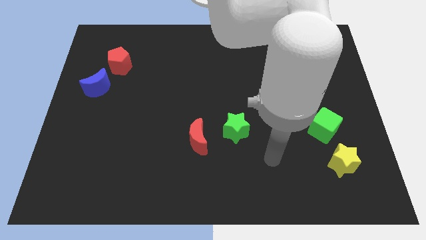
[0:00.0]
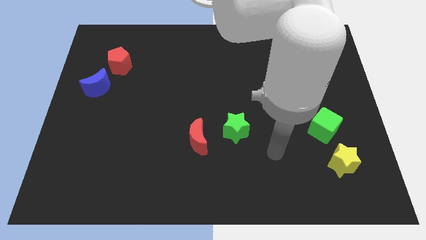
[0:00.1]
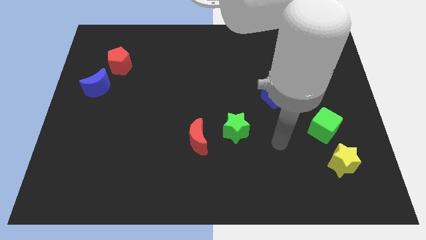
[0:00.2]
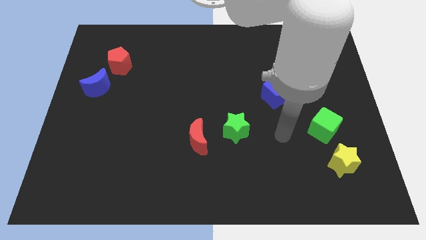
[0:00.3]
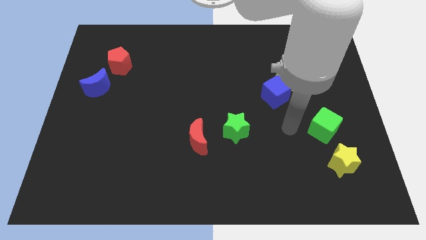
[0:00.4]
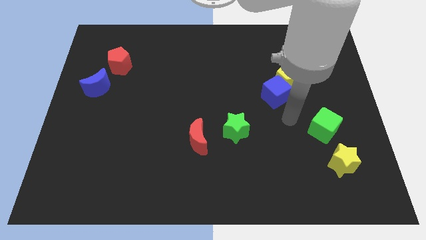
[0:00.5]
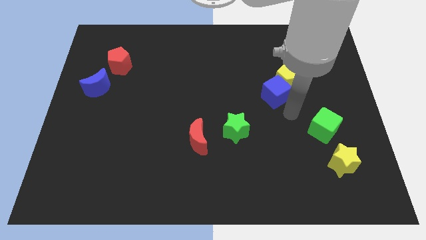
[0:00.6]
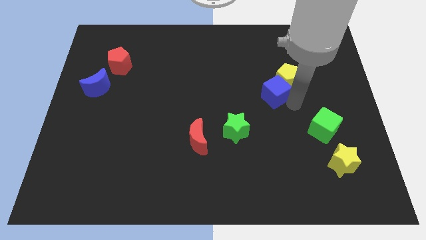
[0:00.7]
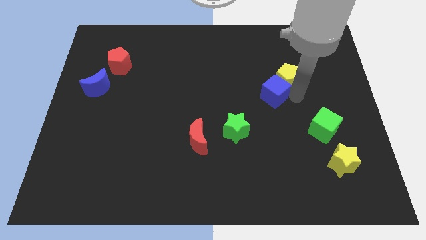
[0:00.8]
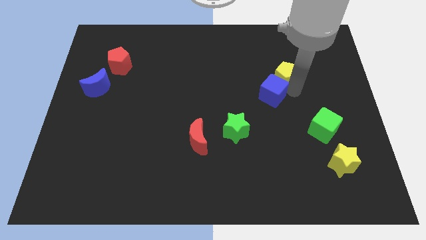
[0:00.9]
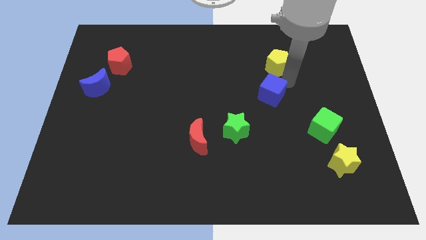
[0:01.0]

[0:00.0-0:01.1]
move the blue cube away from the yellow pentagon

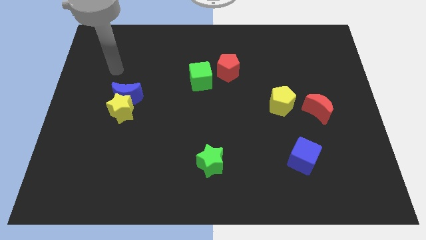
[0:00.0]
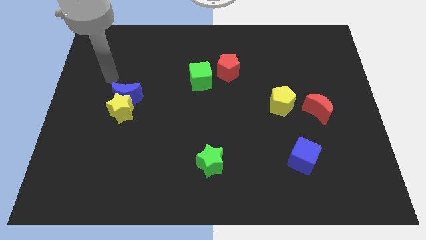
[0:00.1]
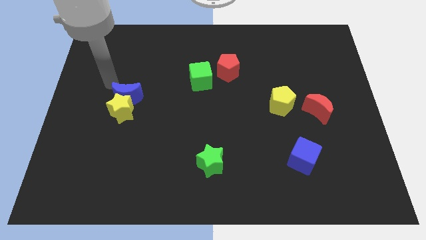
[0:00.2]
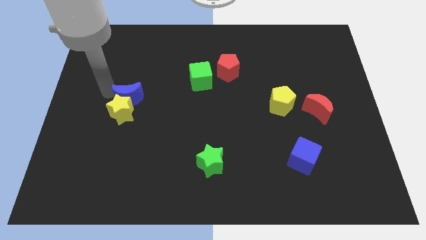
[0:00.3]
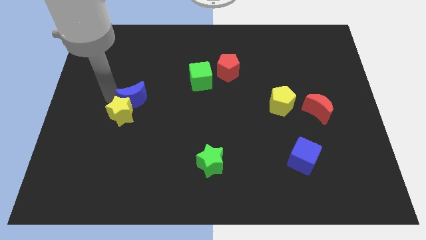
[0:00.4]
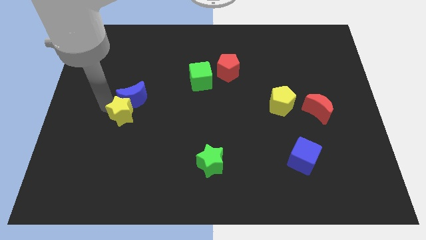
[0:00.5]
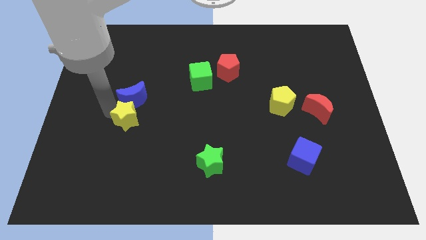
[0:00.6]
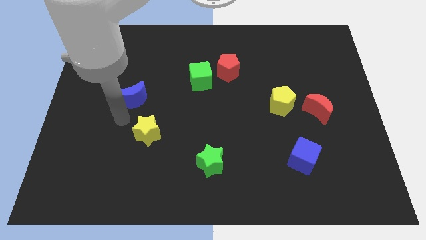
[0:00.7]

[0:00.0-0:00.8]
move the blue moon away from the yellow star

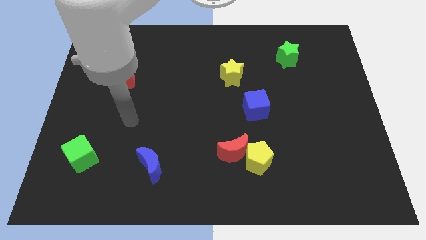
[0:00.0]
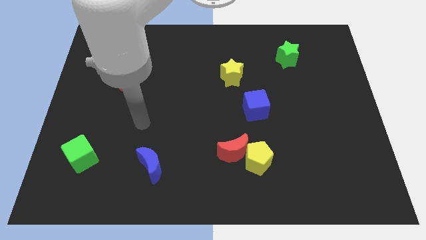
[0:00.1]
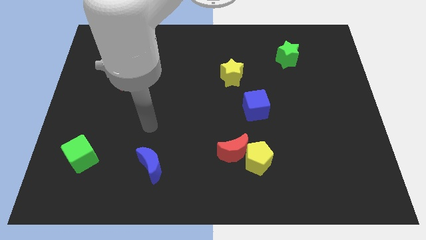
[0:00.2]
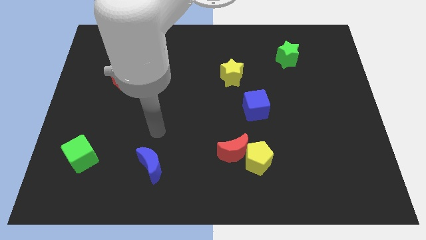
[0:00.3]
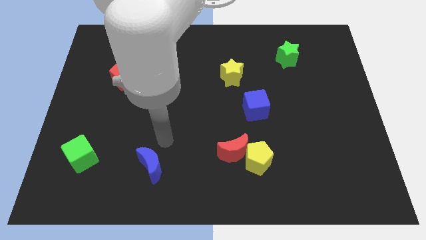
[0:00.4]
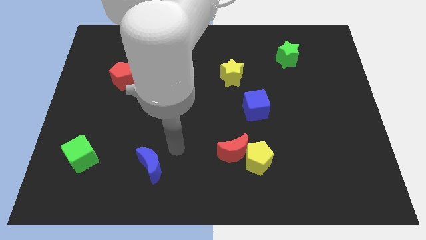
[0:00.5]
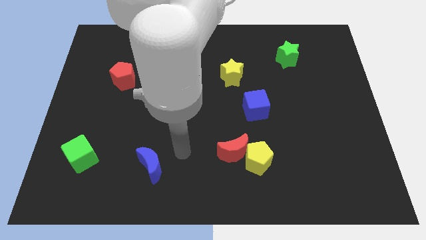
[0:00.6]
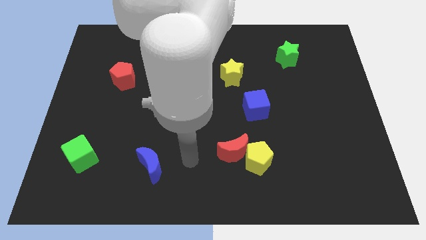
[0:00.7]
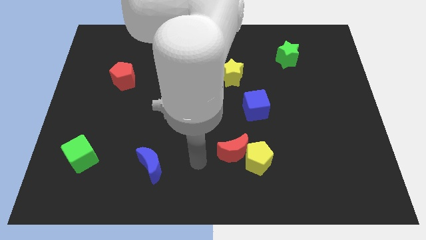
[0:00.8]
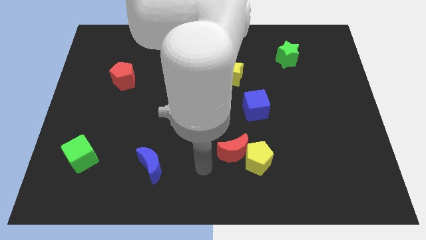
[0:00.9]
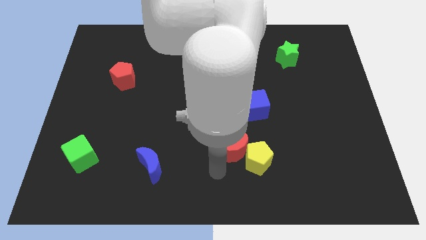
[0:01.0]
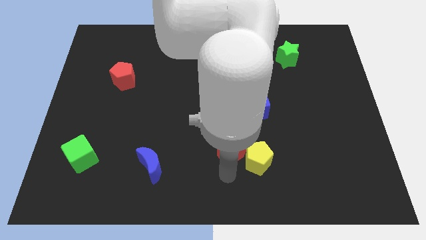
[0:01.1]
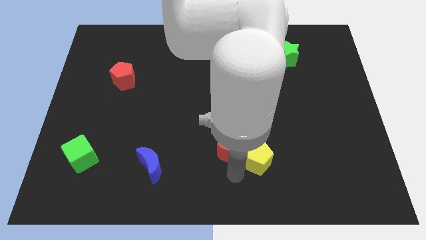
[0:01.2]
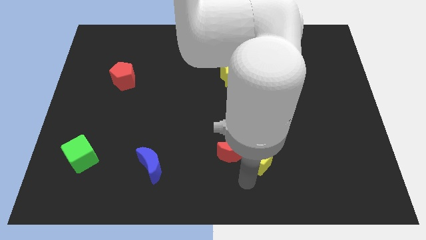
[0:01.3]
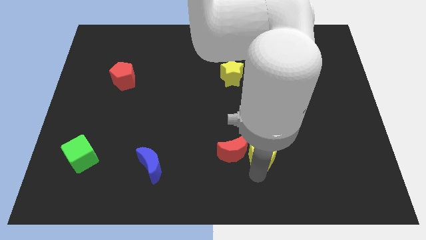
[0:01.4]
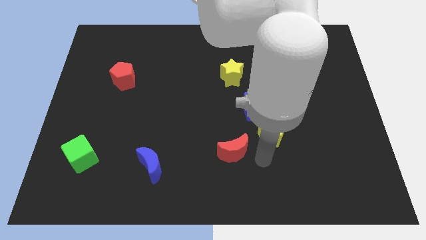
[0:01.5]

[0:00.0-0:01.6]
pull the red moon apart from the yellow pentagon

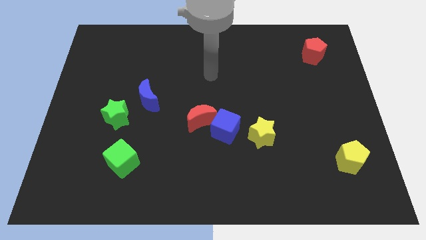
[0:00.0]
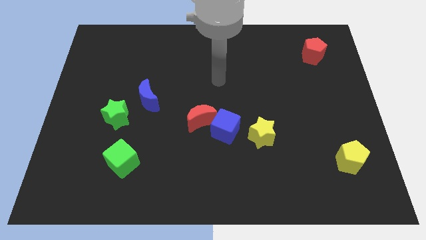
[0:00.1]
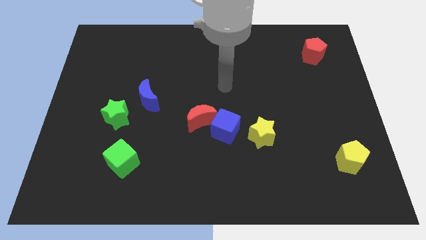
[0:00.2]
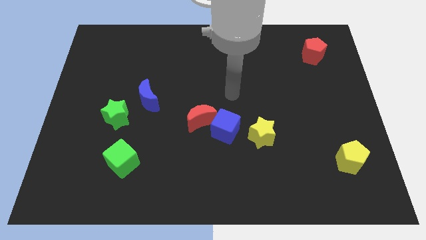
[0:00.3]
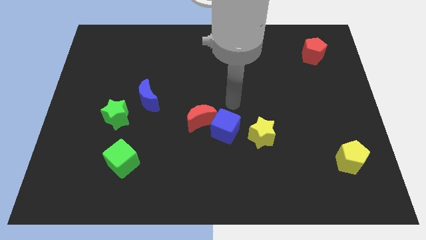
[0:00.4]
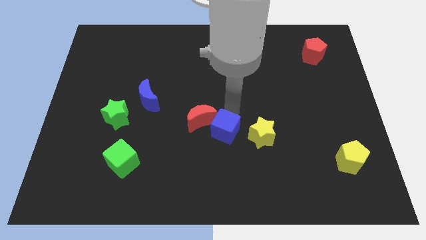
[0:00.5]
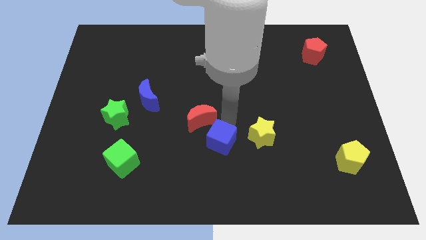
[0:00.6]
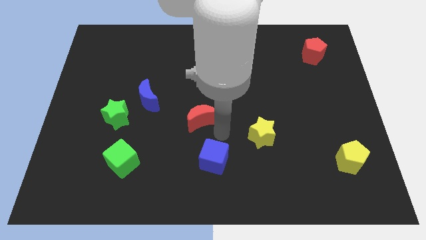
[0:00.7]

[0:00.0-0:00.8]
separate the red moon from the blue cube

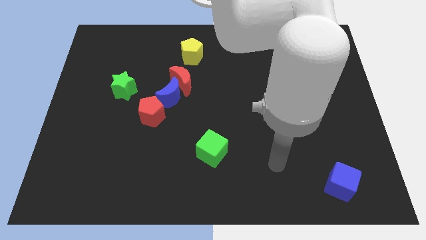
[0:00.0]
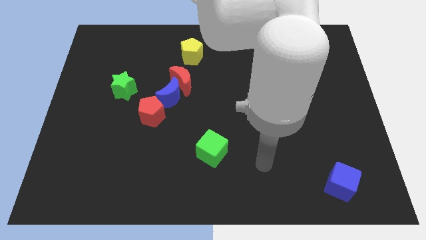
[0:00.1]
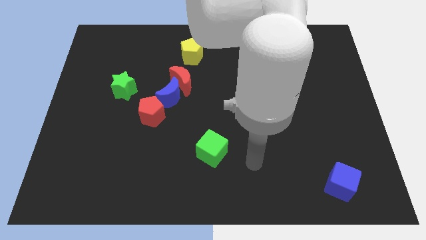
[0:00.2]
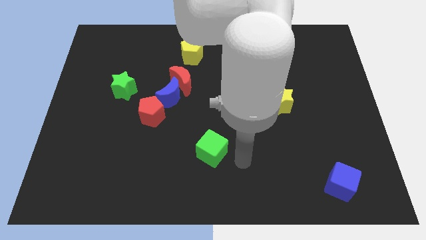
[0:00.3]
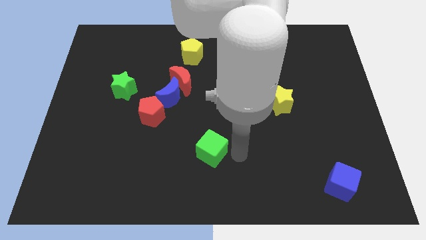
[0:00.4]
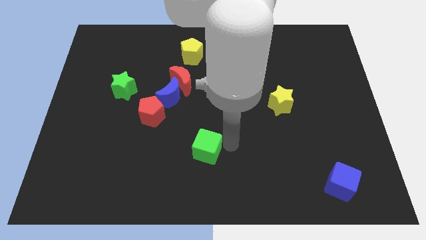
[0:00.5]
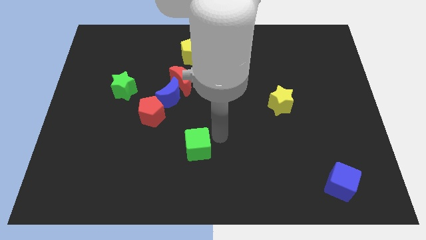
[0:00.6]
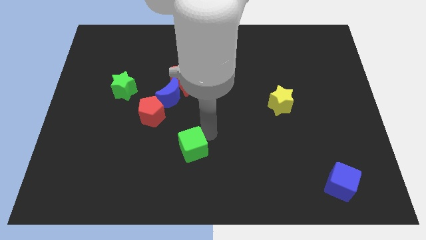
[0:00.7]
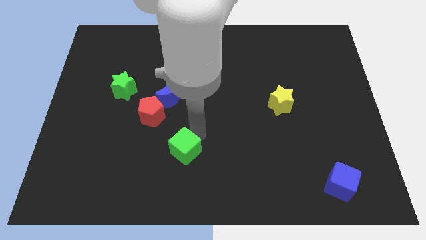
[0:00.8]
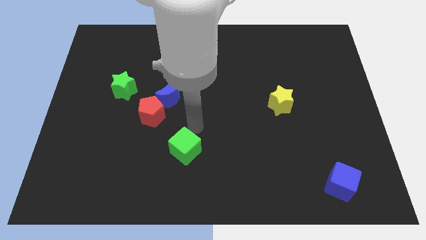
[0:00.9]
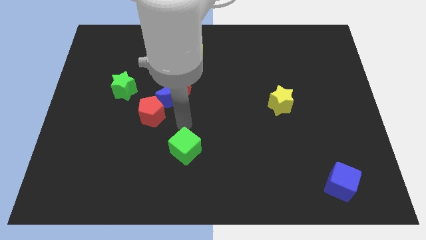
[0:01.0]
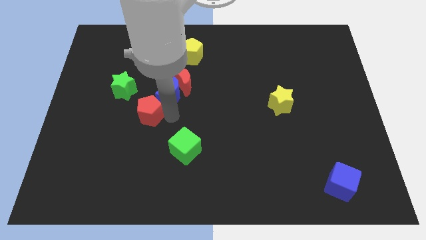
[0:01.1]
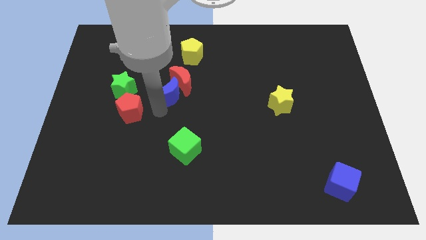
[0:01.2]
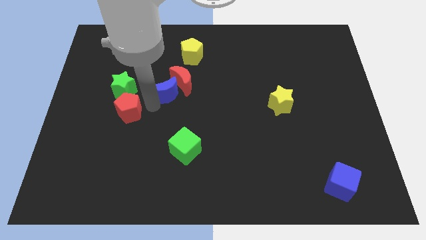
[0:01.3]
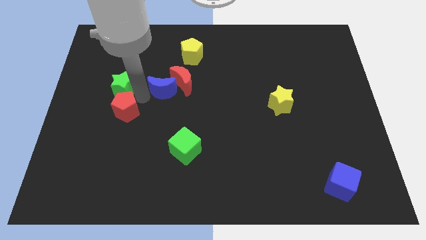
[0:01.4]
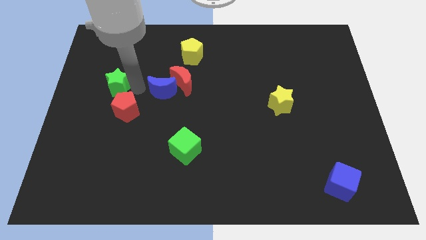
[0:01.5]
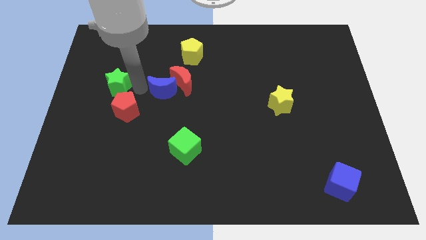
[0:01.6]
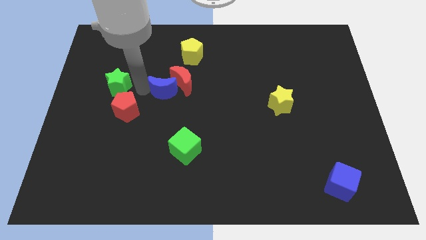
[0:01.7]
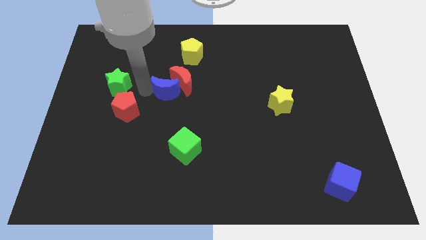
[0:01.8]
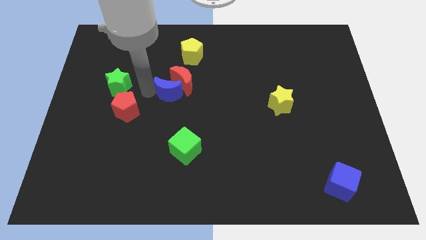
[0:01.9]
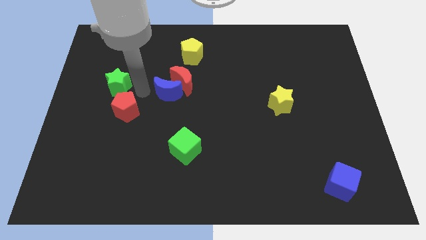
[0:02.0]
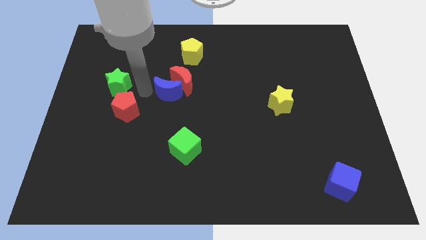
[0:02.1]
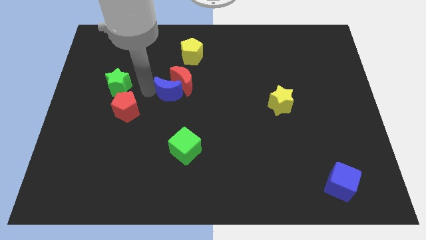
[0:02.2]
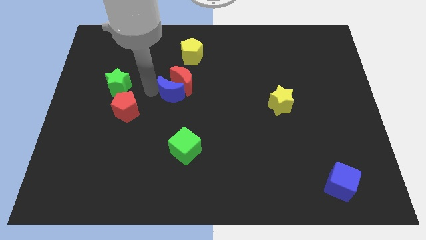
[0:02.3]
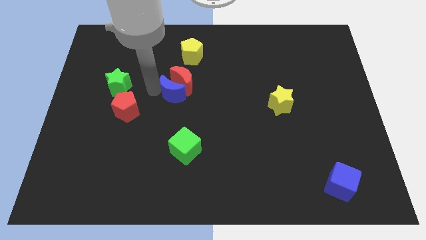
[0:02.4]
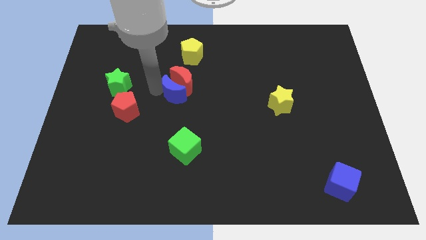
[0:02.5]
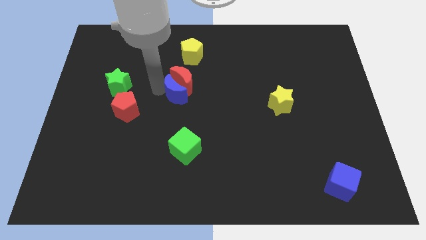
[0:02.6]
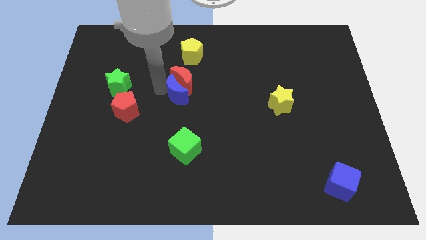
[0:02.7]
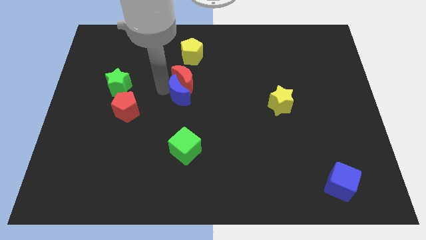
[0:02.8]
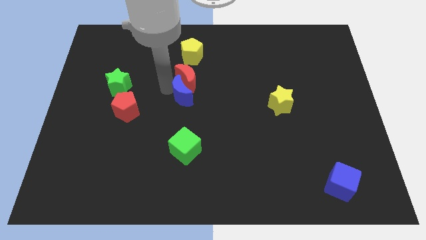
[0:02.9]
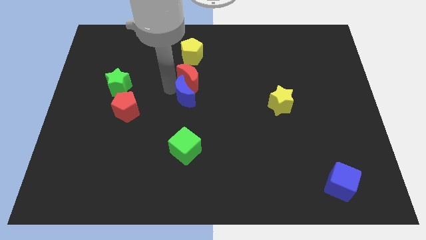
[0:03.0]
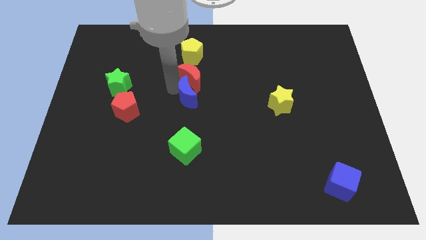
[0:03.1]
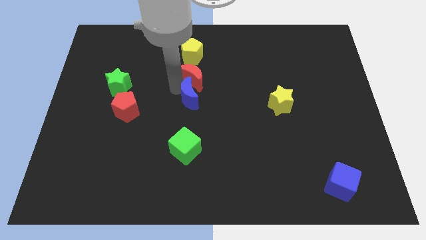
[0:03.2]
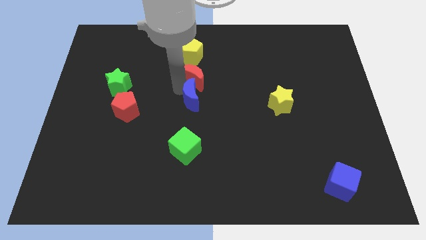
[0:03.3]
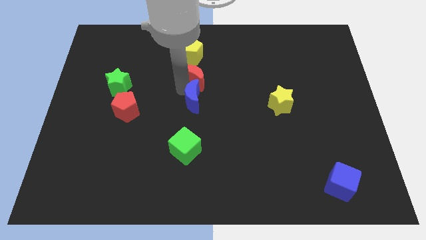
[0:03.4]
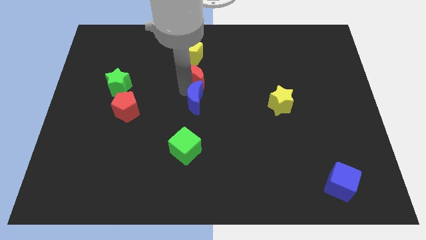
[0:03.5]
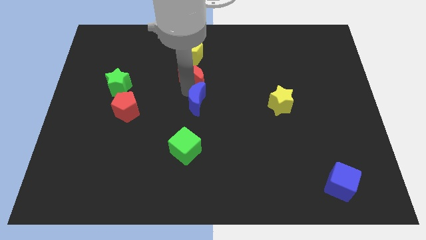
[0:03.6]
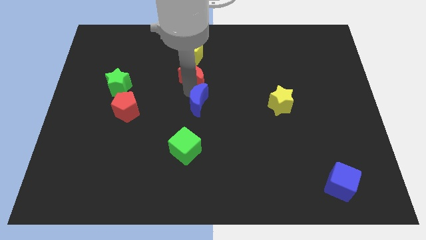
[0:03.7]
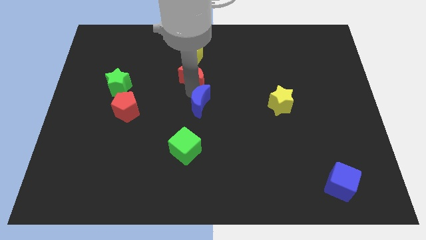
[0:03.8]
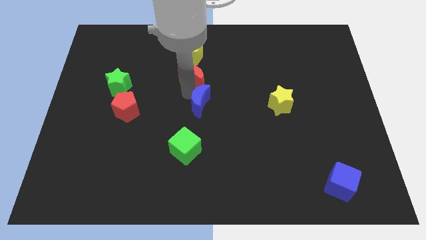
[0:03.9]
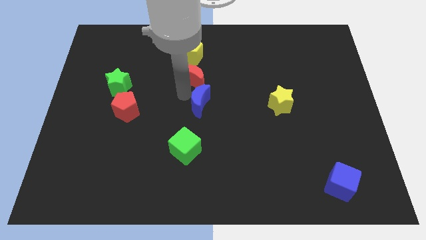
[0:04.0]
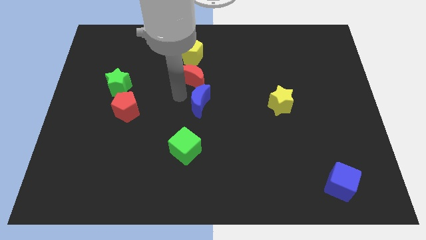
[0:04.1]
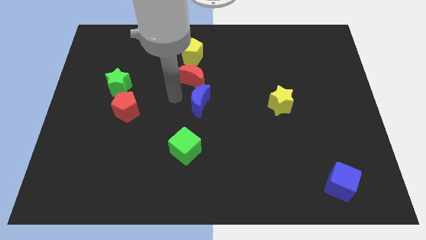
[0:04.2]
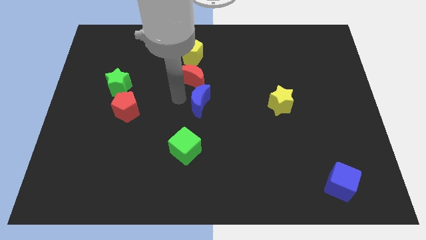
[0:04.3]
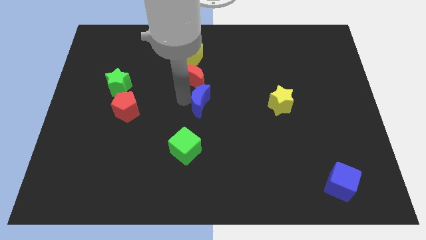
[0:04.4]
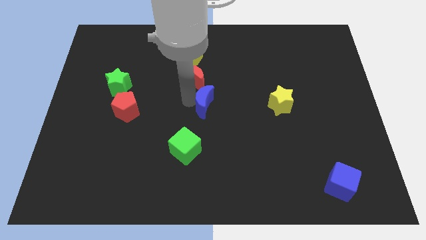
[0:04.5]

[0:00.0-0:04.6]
separate the blue moon from the red moon and red pentagon

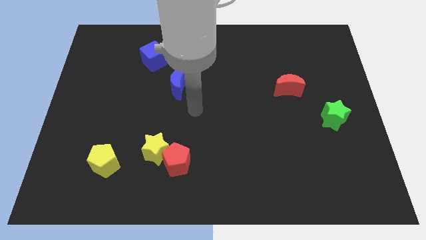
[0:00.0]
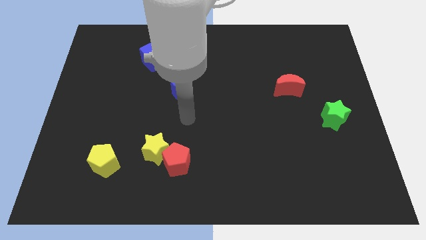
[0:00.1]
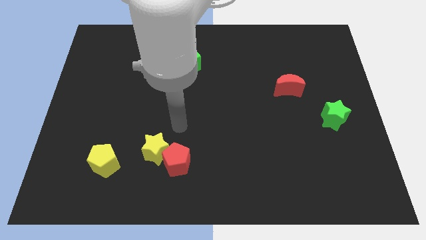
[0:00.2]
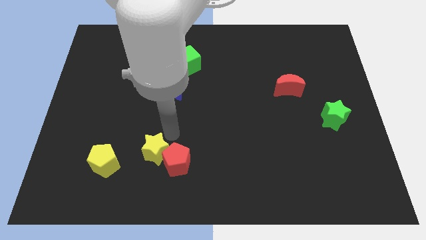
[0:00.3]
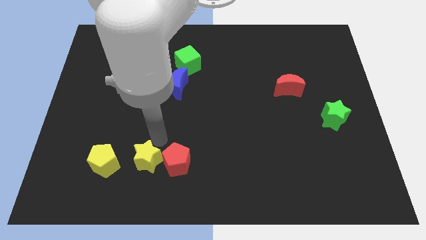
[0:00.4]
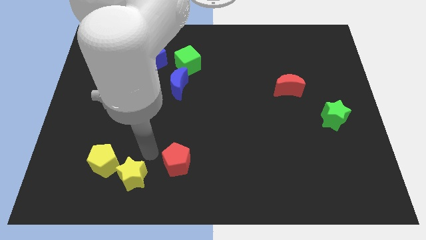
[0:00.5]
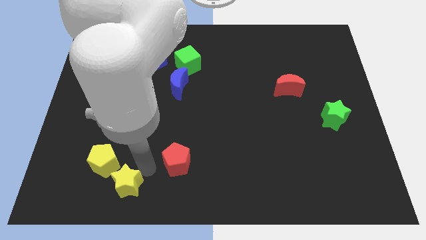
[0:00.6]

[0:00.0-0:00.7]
separate the red pentagon from the yellow star
